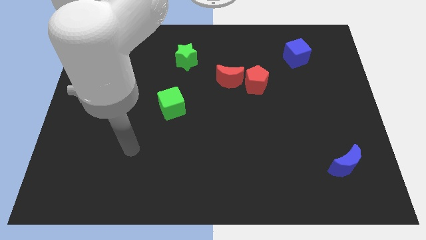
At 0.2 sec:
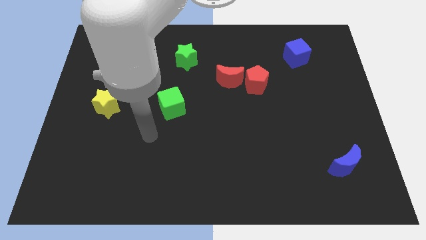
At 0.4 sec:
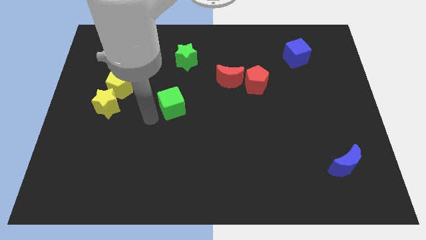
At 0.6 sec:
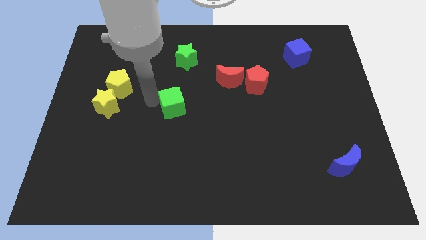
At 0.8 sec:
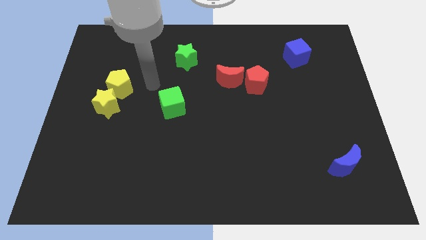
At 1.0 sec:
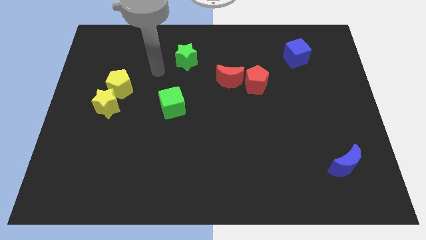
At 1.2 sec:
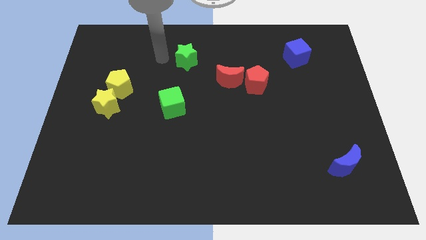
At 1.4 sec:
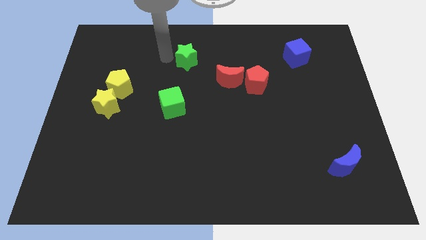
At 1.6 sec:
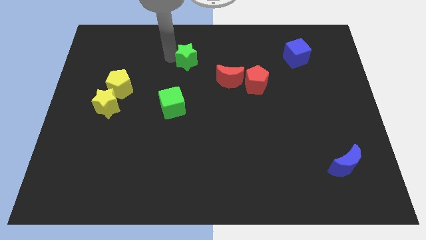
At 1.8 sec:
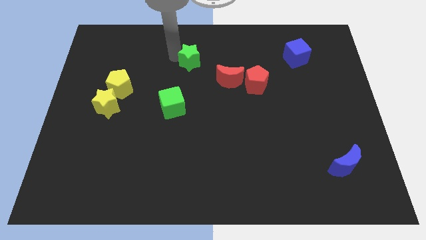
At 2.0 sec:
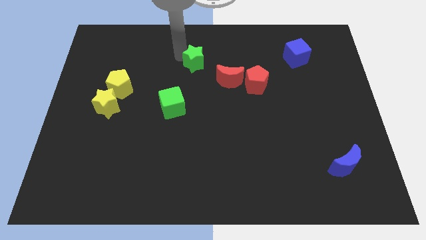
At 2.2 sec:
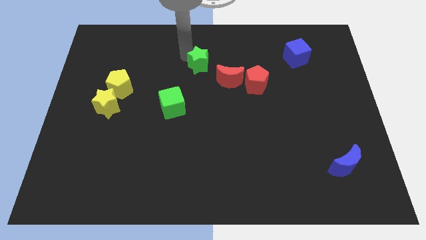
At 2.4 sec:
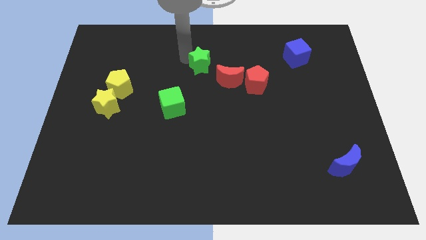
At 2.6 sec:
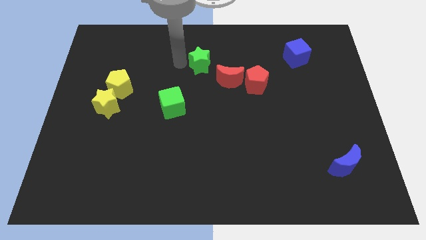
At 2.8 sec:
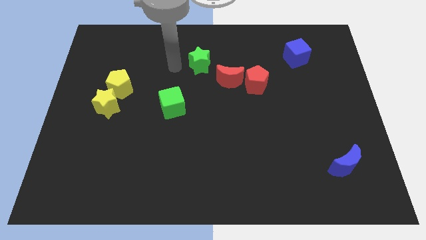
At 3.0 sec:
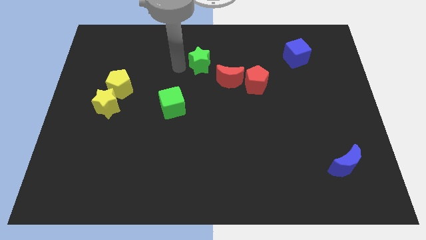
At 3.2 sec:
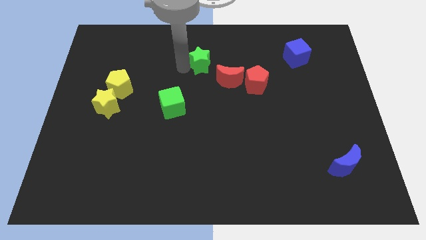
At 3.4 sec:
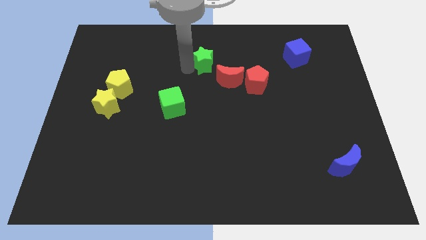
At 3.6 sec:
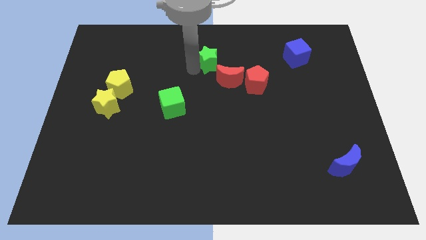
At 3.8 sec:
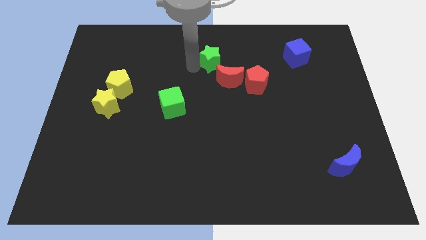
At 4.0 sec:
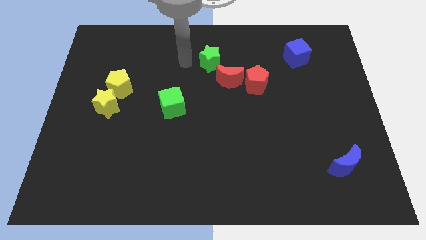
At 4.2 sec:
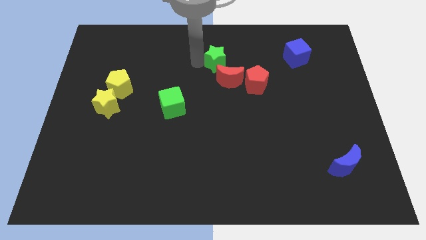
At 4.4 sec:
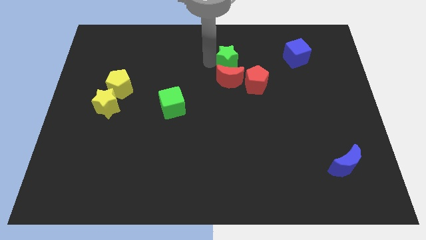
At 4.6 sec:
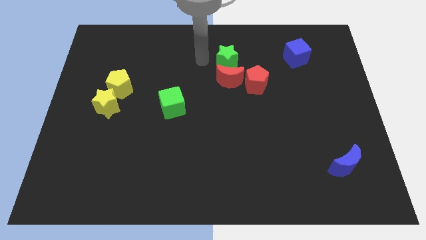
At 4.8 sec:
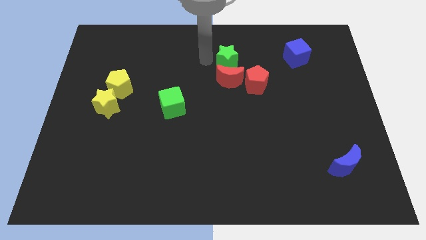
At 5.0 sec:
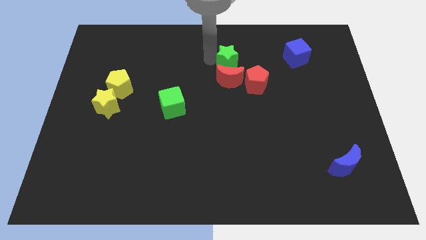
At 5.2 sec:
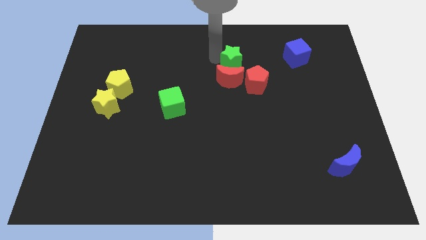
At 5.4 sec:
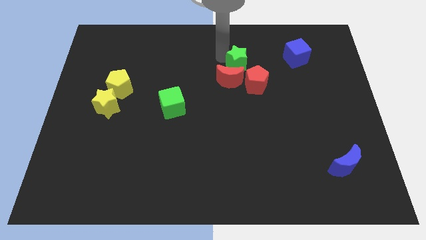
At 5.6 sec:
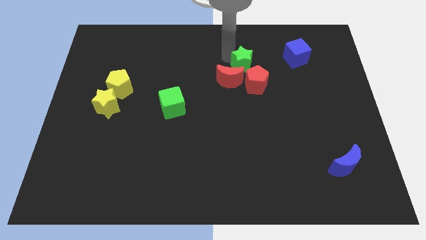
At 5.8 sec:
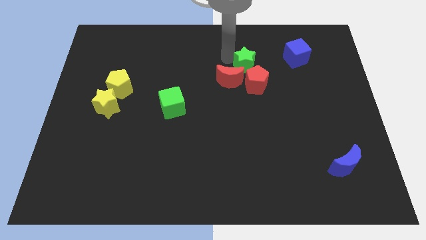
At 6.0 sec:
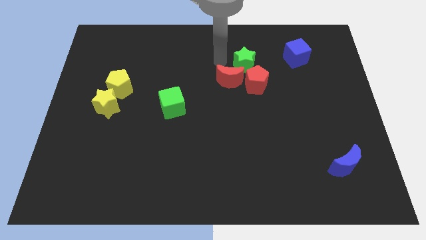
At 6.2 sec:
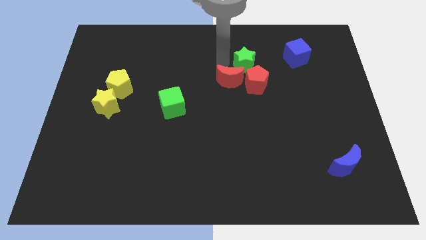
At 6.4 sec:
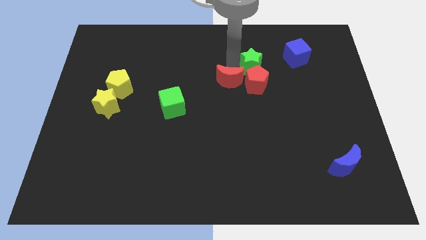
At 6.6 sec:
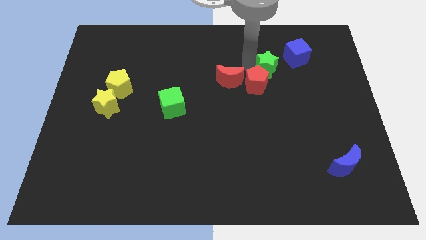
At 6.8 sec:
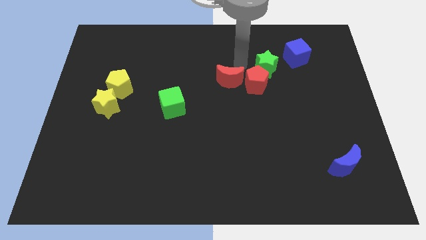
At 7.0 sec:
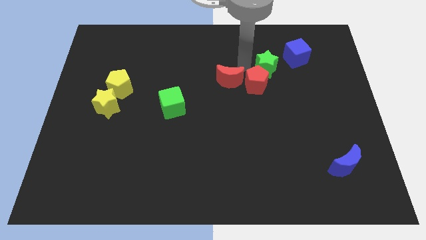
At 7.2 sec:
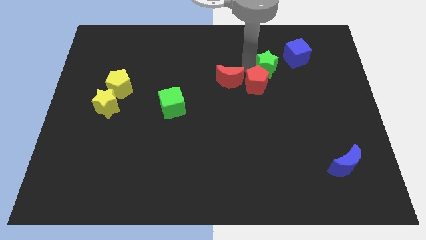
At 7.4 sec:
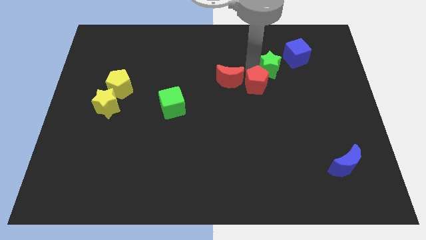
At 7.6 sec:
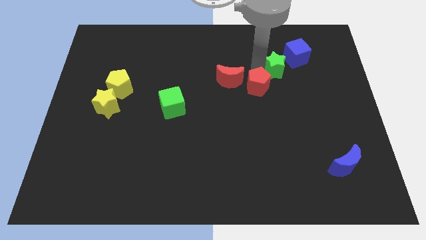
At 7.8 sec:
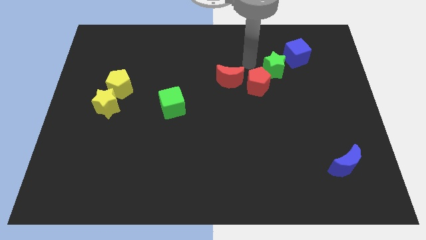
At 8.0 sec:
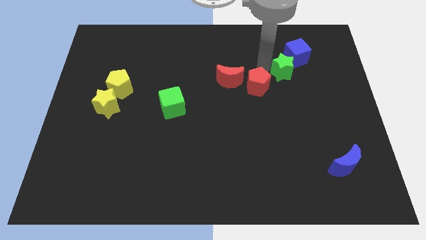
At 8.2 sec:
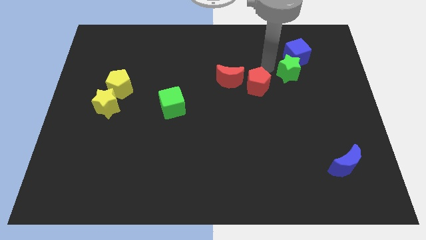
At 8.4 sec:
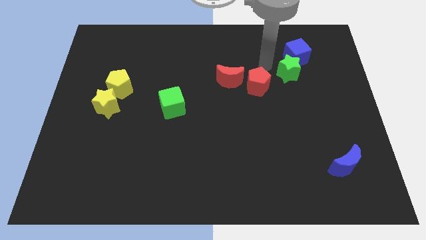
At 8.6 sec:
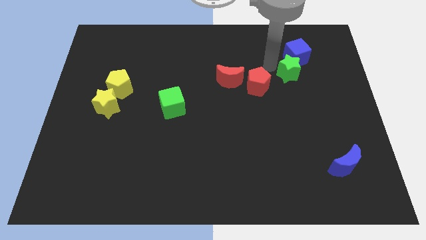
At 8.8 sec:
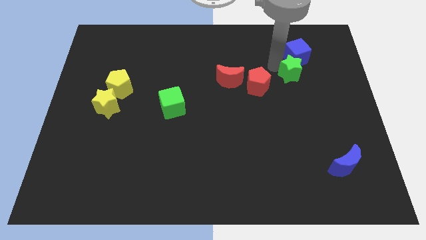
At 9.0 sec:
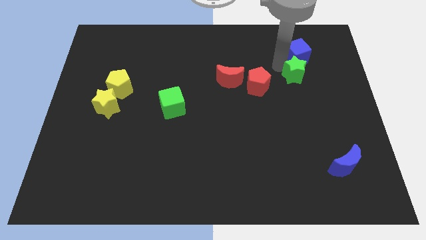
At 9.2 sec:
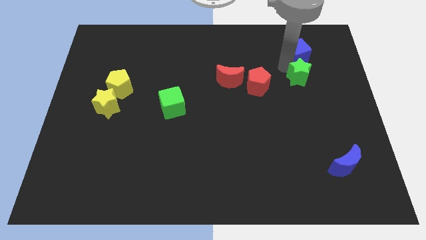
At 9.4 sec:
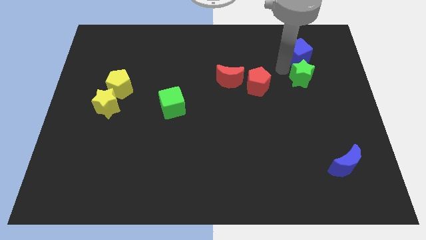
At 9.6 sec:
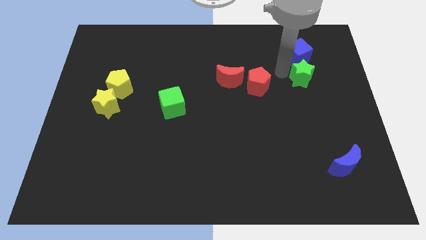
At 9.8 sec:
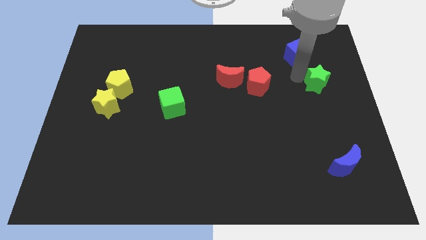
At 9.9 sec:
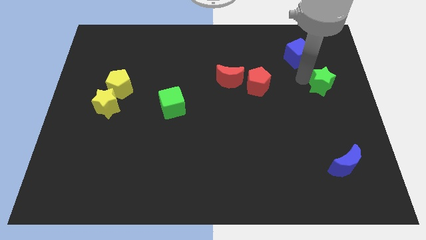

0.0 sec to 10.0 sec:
push the green star to the right side

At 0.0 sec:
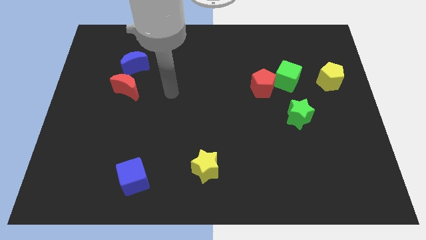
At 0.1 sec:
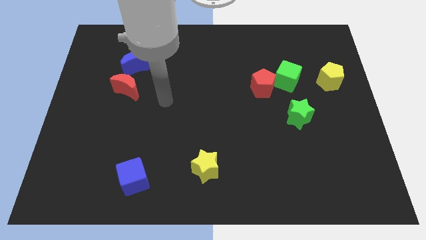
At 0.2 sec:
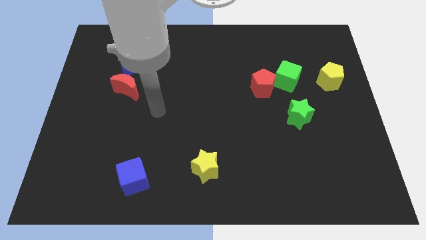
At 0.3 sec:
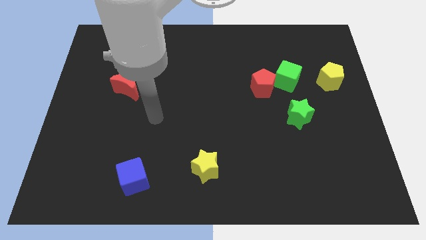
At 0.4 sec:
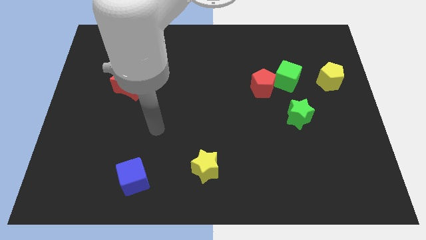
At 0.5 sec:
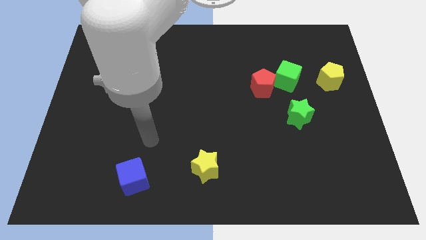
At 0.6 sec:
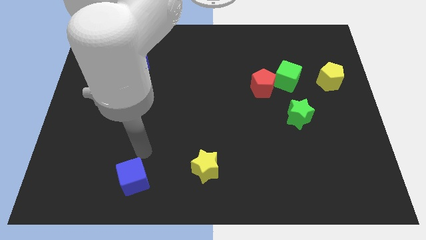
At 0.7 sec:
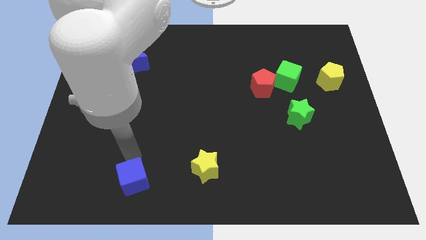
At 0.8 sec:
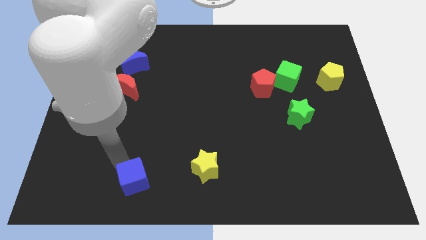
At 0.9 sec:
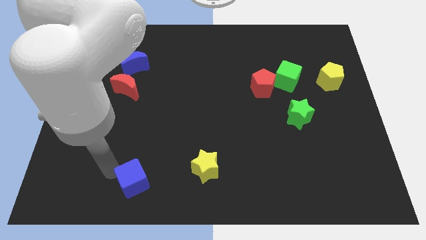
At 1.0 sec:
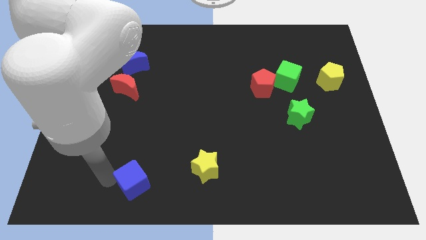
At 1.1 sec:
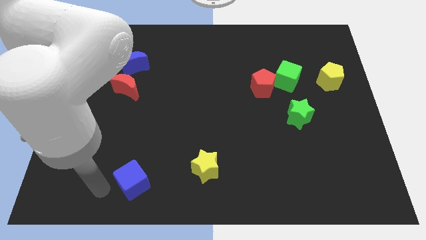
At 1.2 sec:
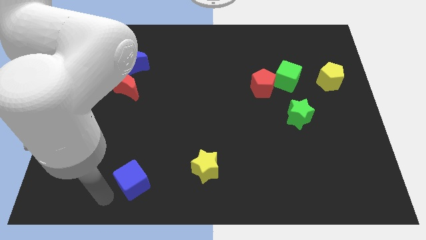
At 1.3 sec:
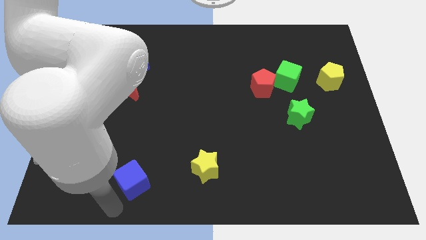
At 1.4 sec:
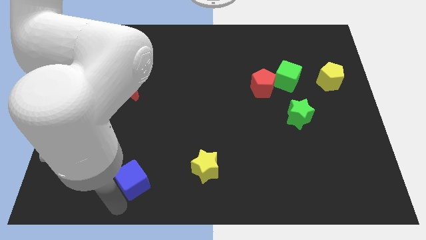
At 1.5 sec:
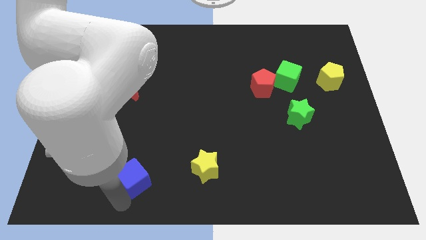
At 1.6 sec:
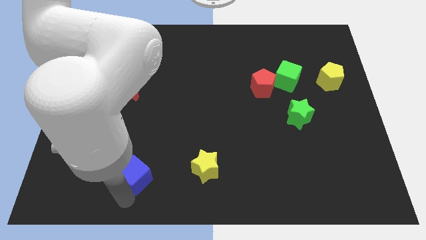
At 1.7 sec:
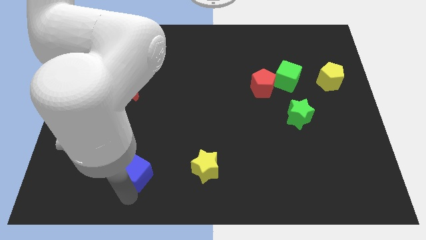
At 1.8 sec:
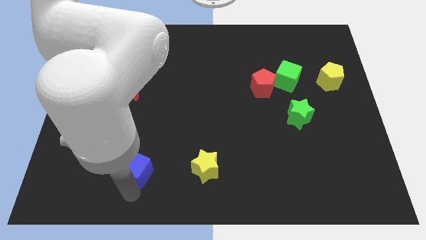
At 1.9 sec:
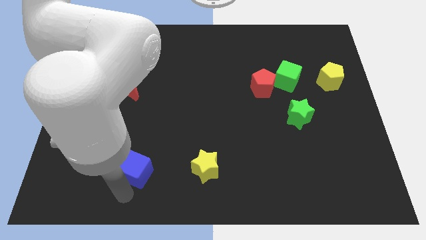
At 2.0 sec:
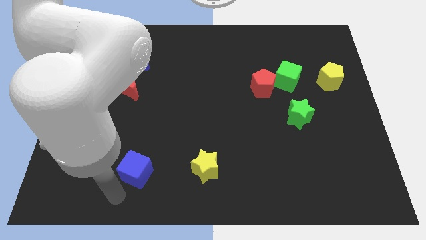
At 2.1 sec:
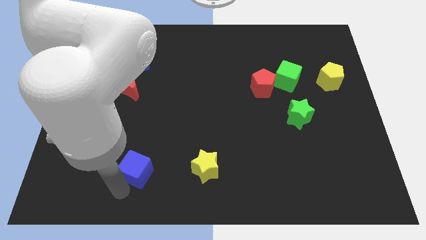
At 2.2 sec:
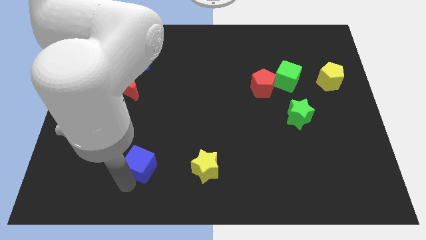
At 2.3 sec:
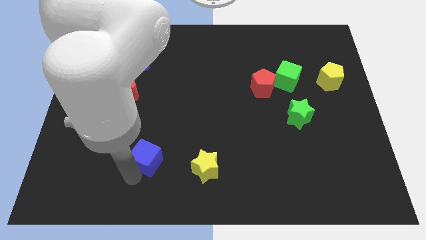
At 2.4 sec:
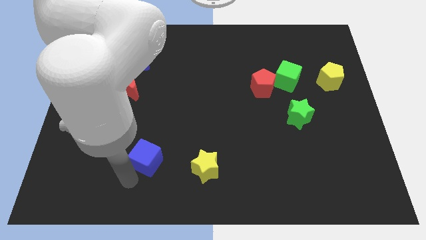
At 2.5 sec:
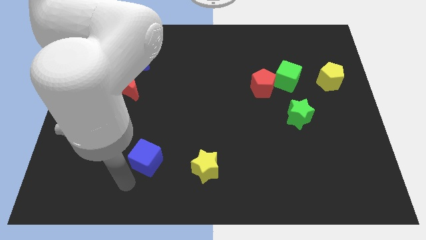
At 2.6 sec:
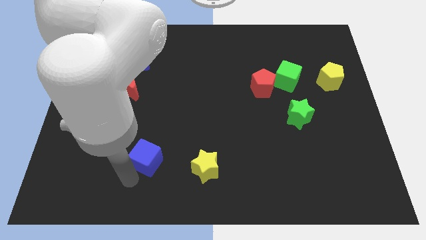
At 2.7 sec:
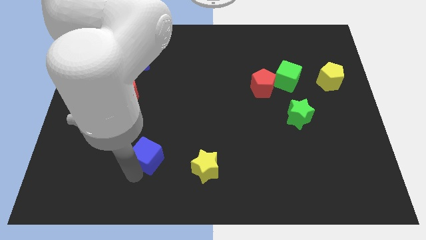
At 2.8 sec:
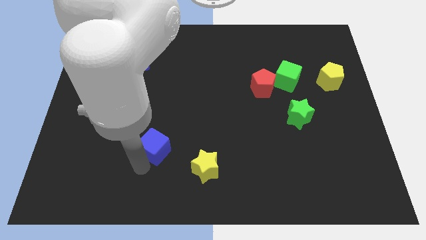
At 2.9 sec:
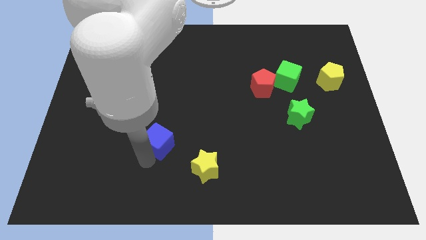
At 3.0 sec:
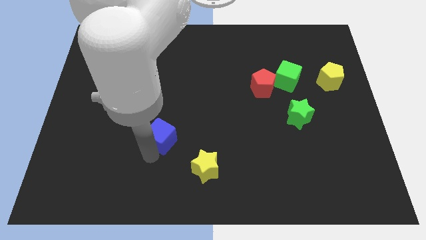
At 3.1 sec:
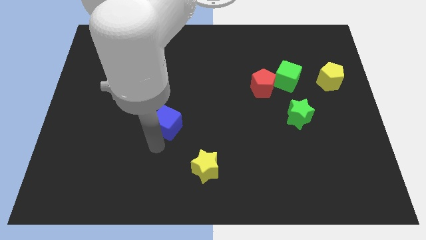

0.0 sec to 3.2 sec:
put the blue cube to the center of the board

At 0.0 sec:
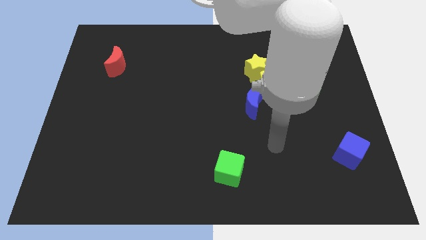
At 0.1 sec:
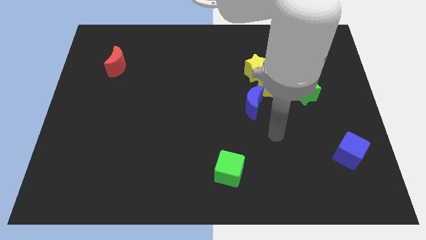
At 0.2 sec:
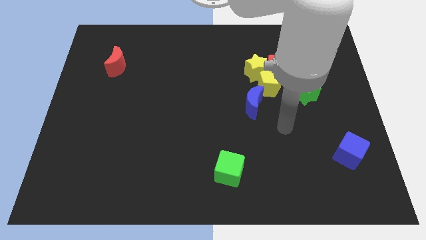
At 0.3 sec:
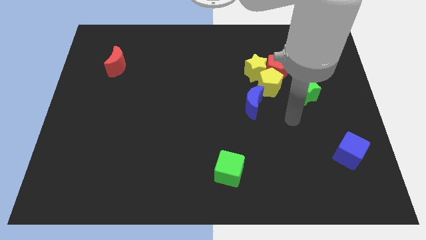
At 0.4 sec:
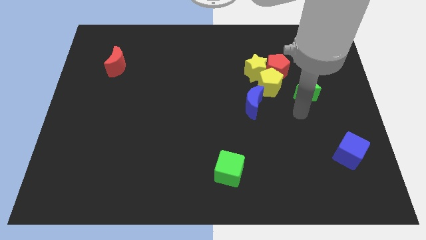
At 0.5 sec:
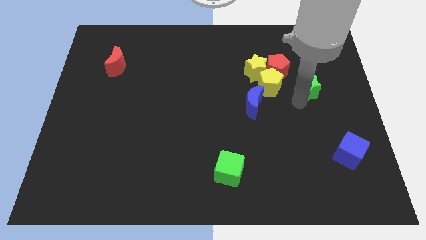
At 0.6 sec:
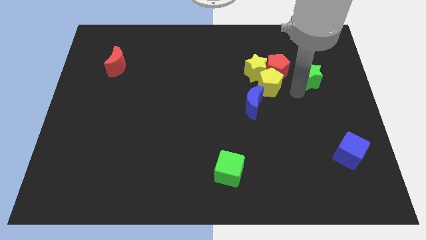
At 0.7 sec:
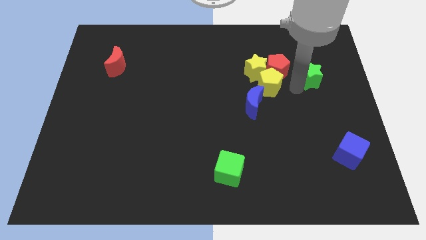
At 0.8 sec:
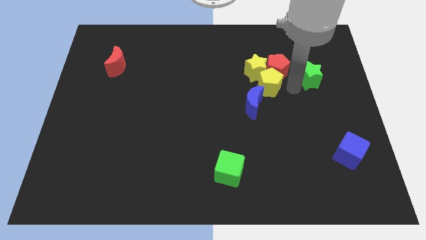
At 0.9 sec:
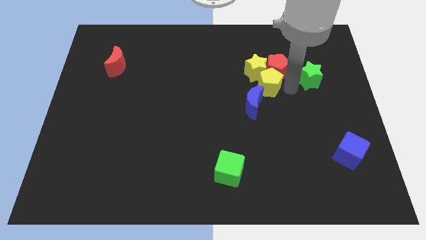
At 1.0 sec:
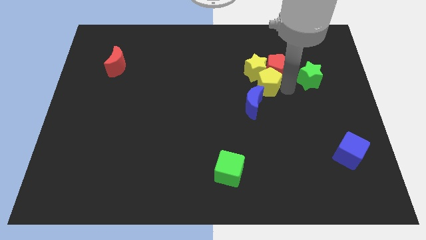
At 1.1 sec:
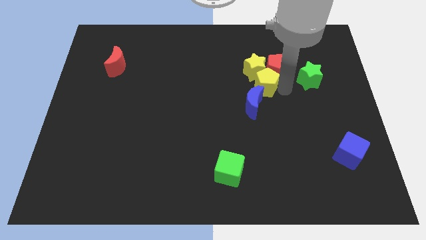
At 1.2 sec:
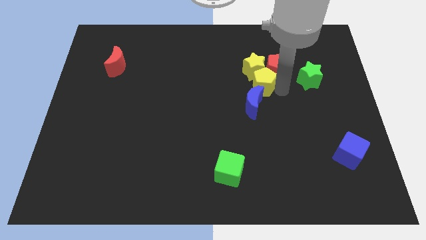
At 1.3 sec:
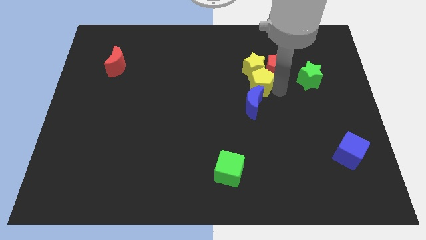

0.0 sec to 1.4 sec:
push the yellow pentagon to the center
